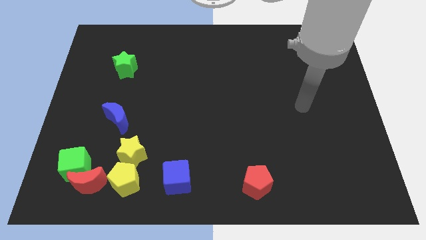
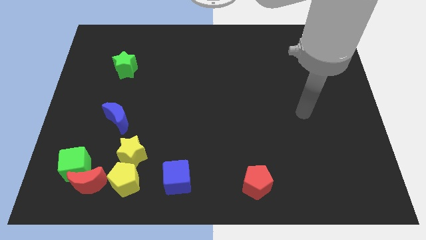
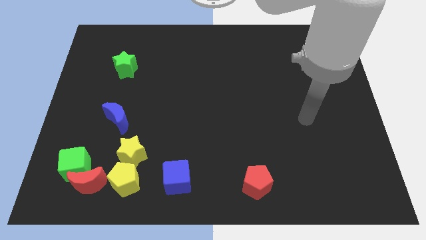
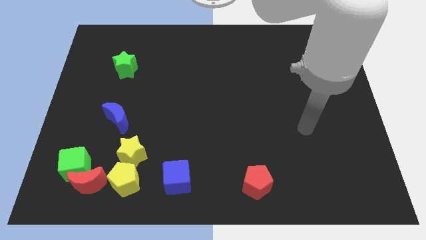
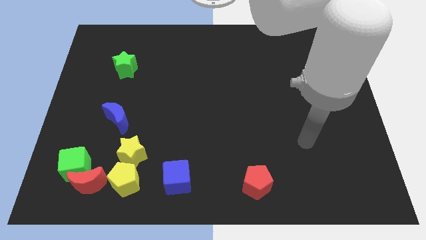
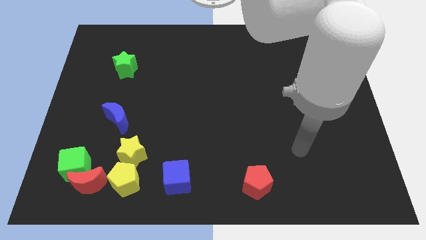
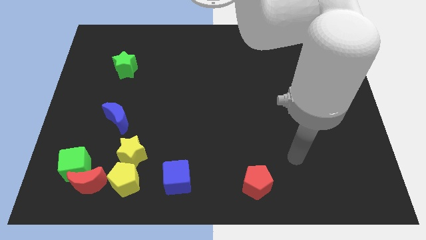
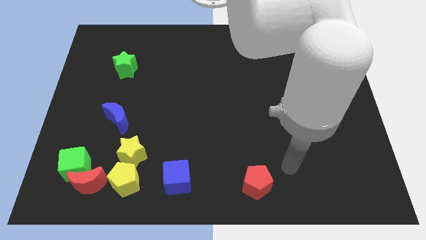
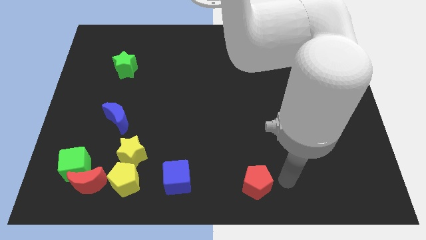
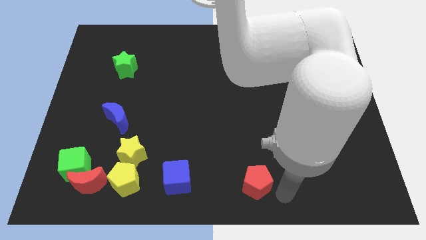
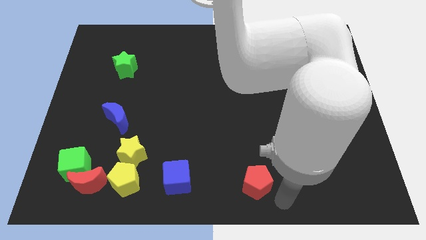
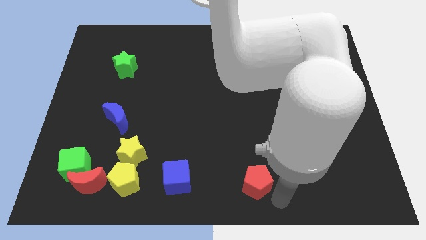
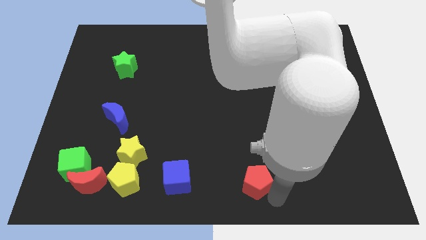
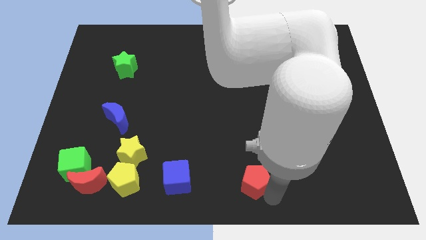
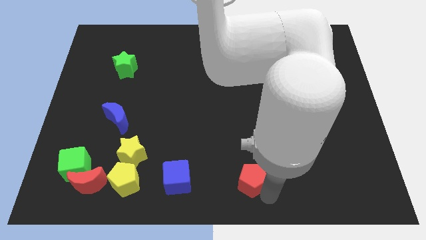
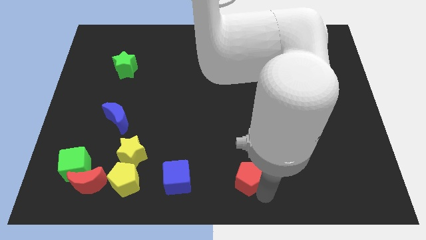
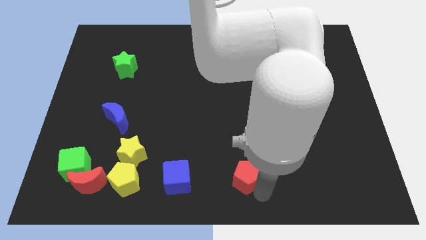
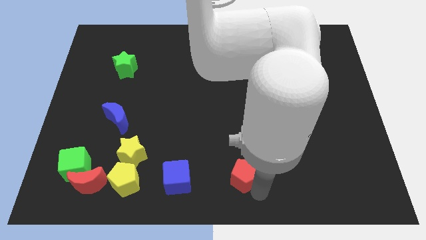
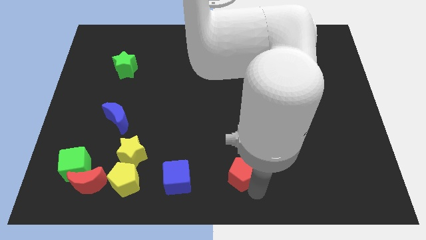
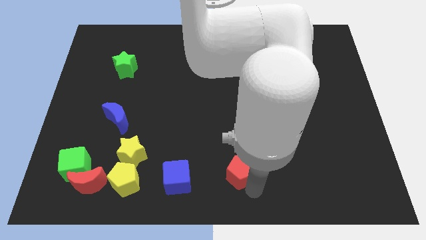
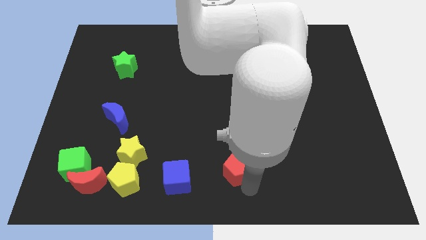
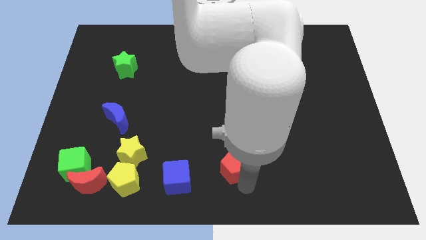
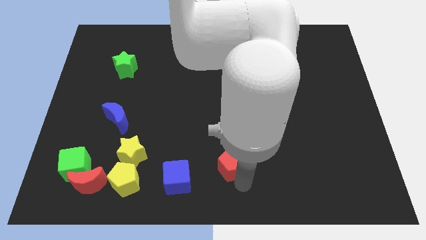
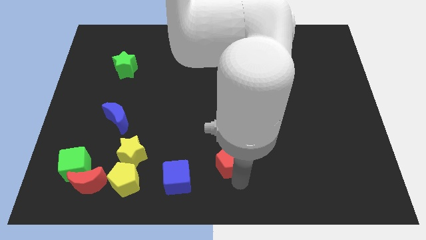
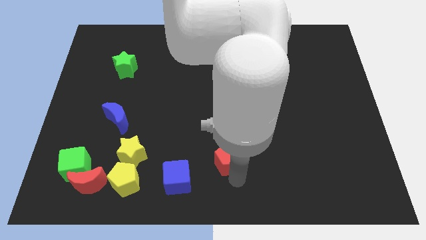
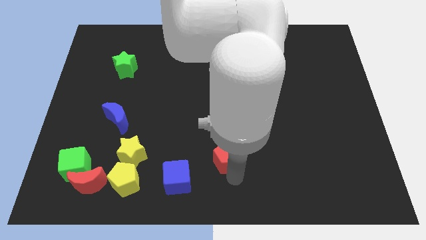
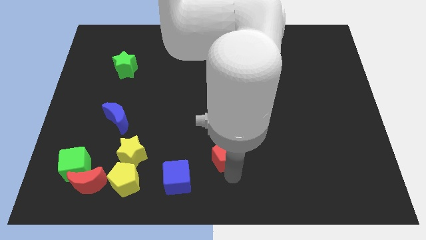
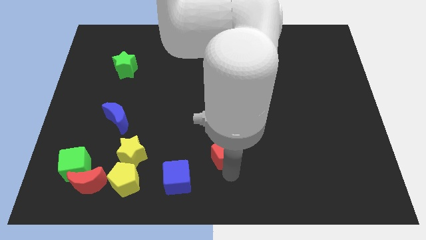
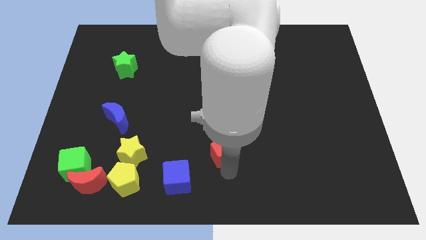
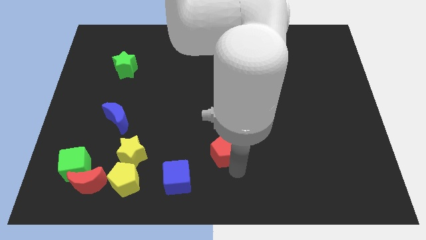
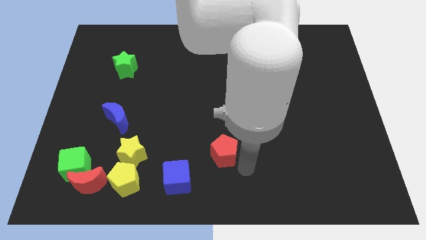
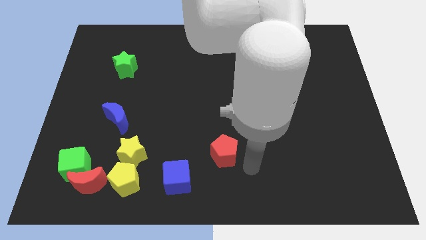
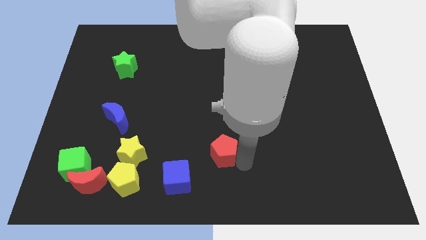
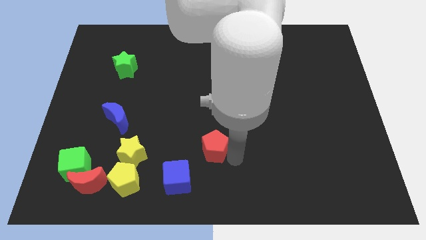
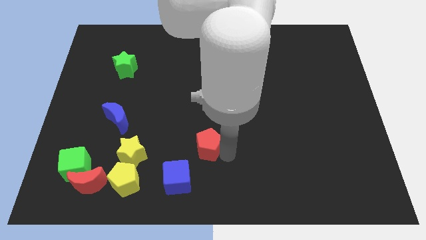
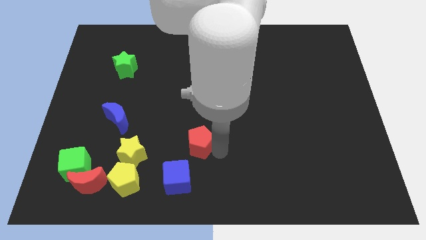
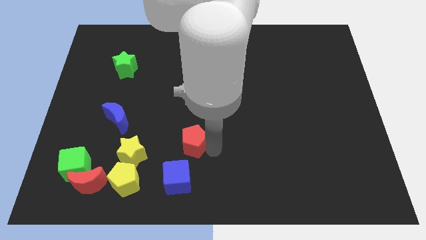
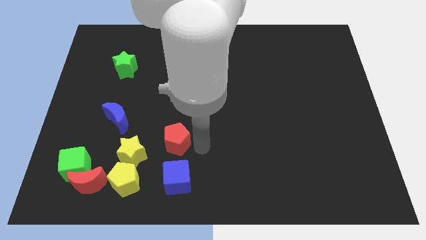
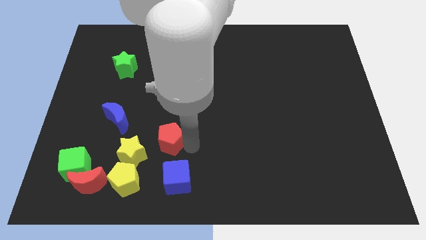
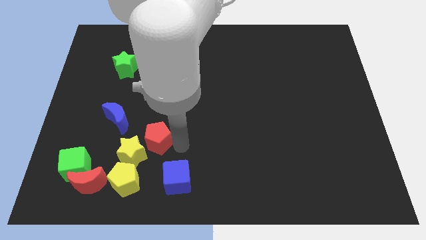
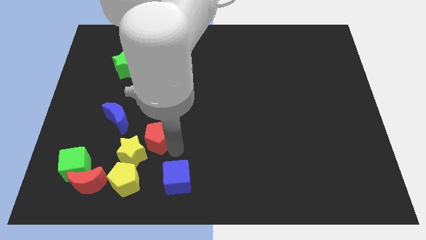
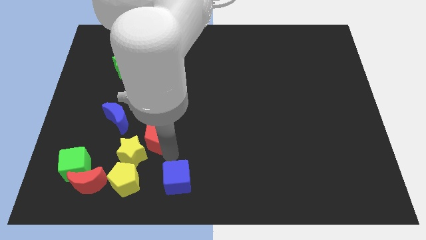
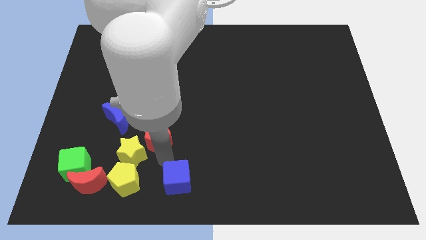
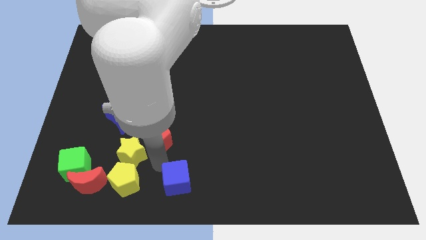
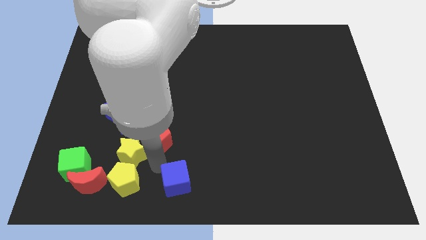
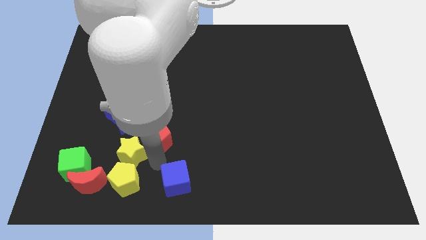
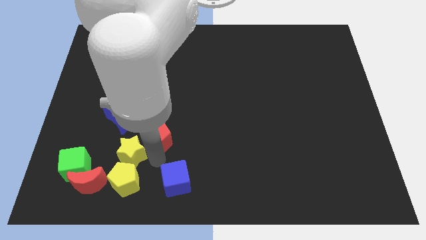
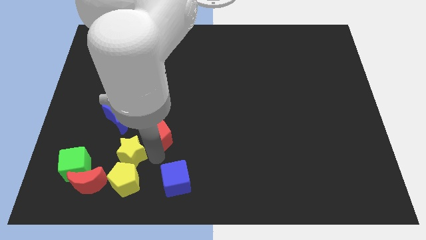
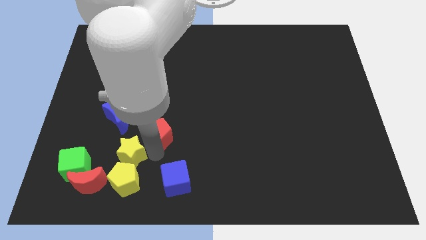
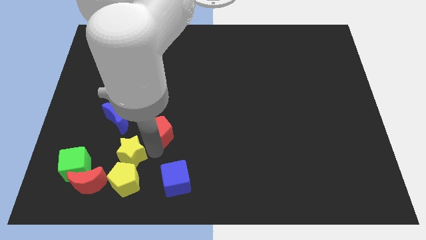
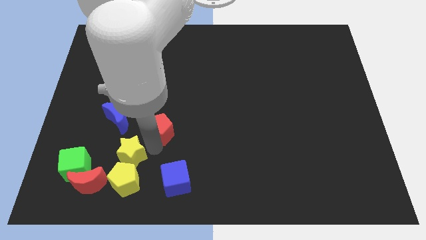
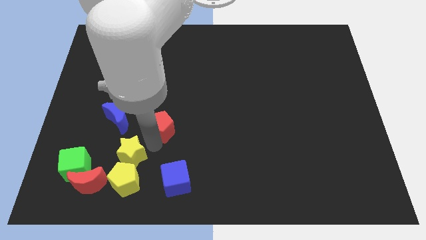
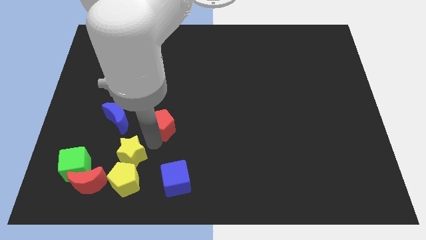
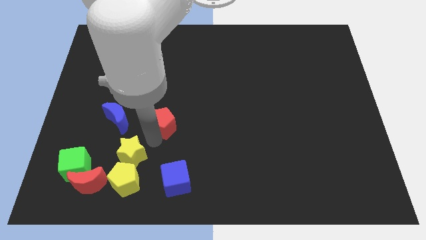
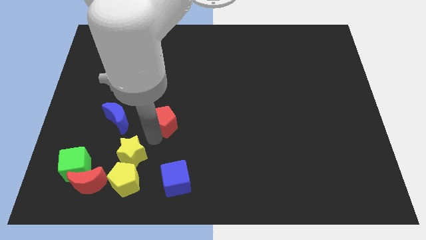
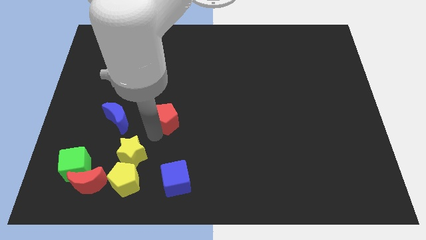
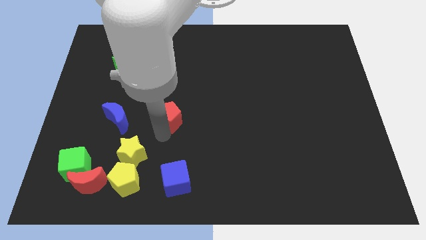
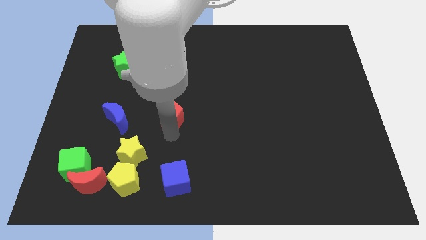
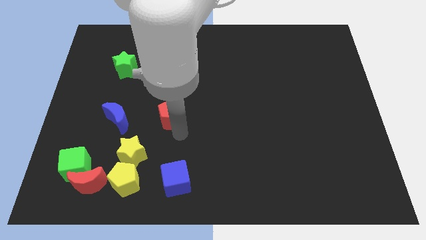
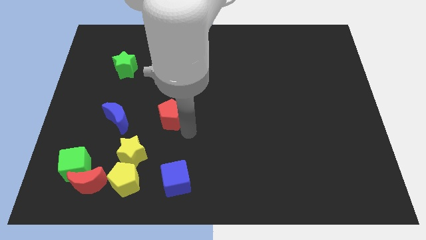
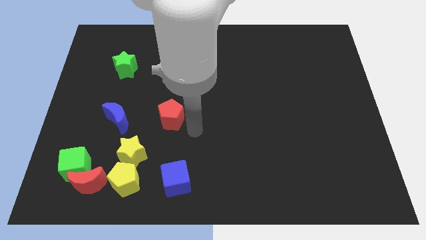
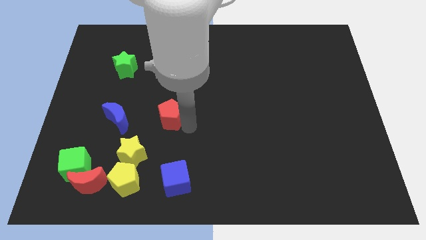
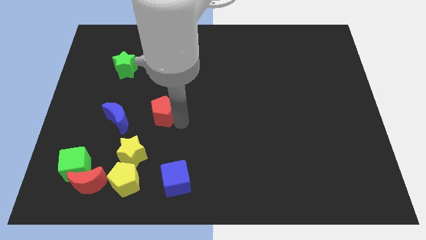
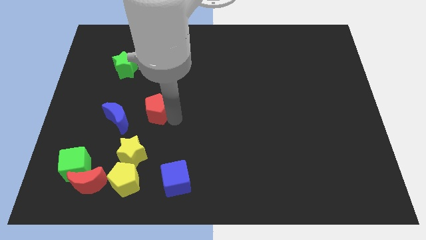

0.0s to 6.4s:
move the red pentagon diagonally up and to the right of the blue moon

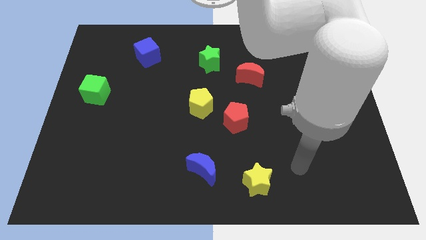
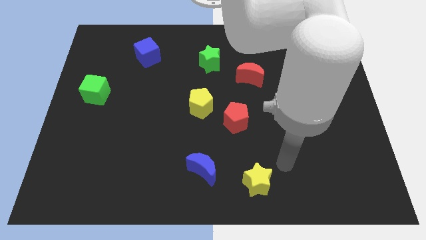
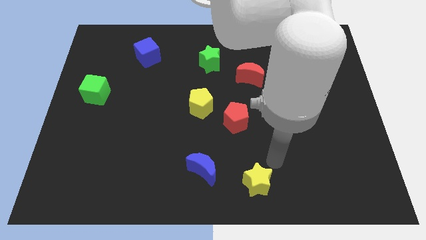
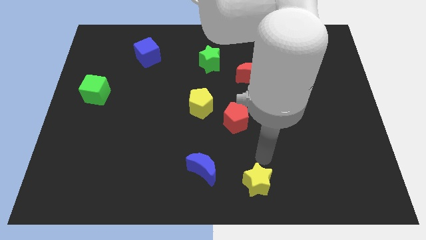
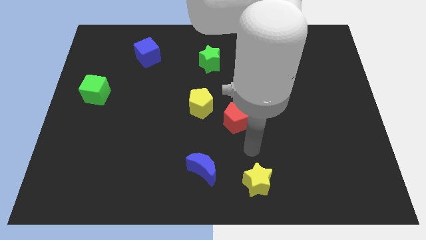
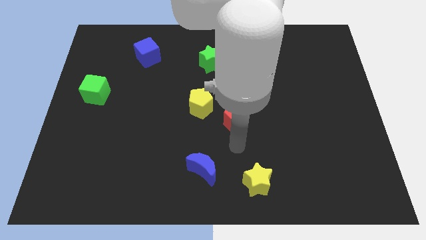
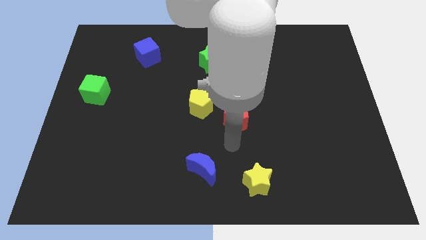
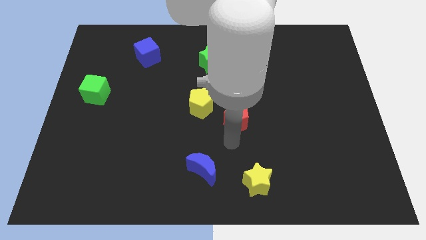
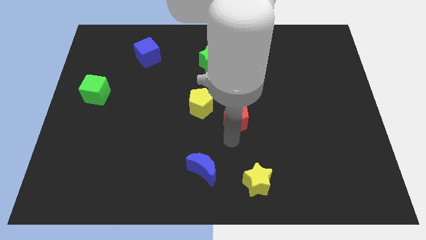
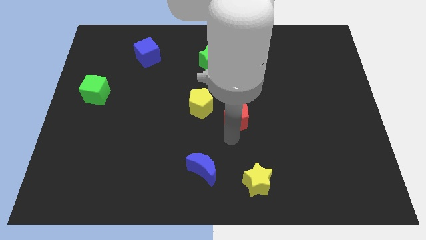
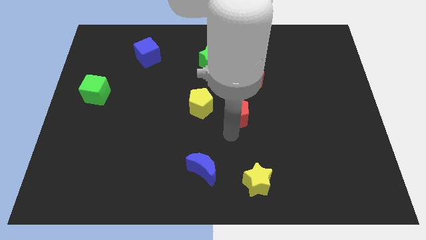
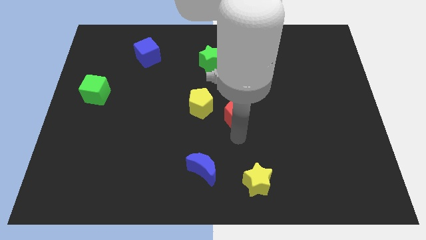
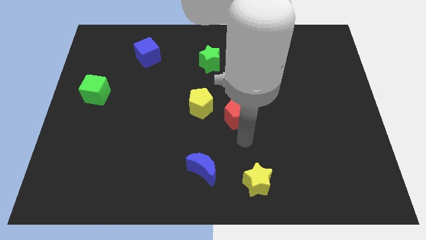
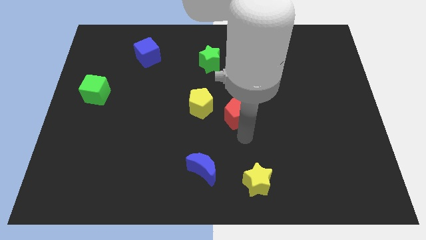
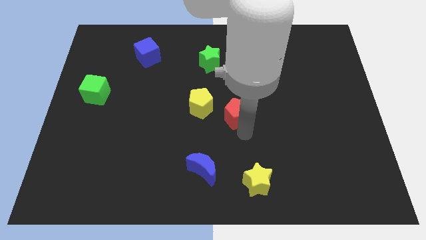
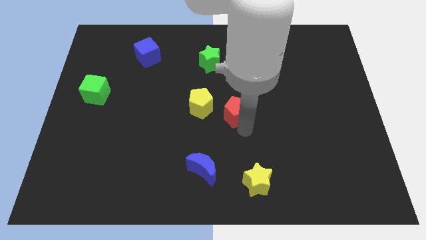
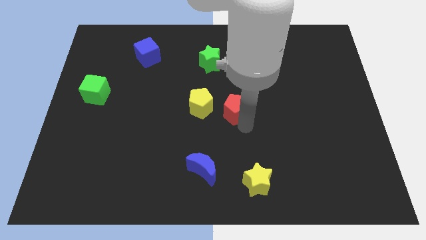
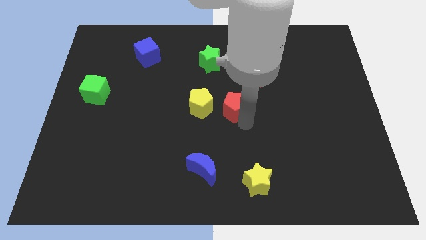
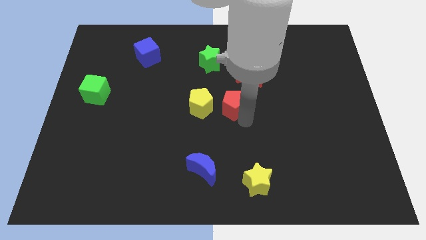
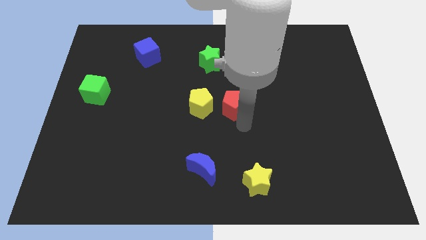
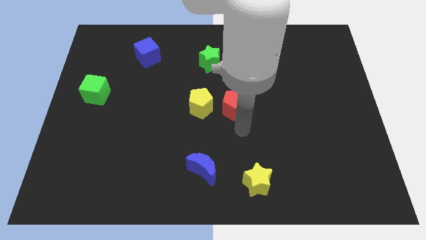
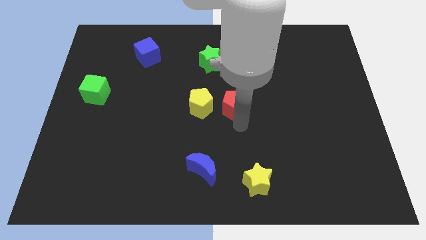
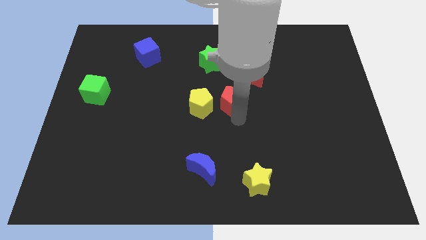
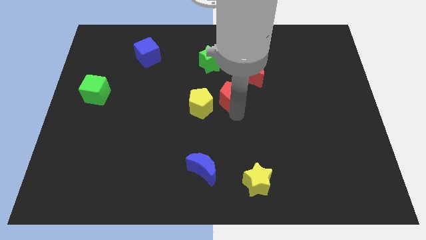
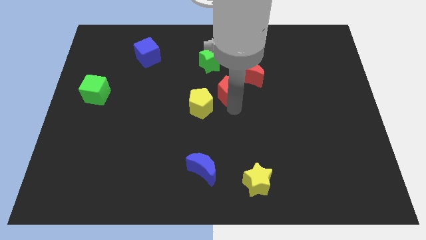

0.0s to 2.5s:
slide the red pentagon to the bottom right side of the green star
